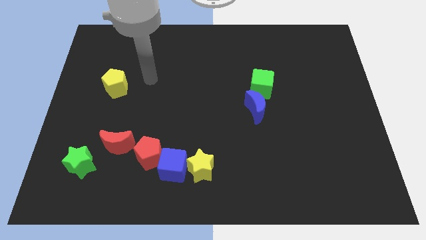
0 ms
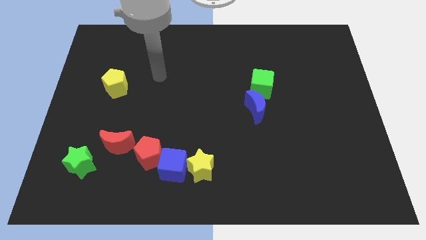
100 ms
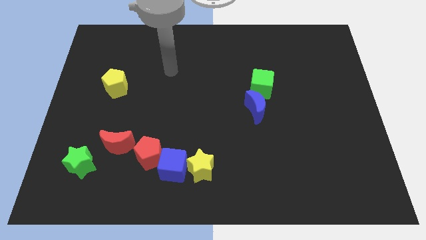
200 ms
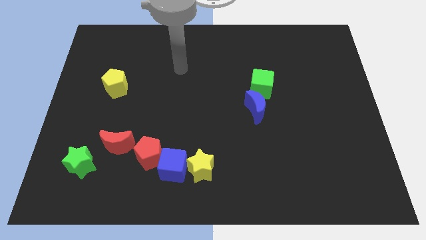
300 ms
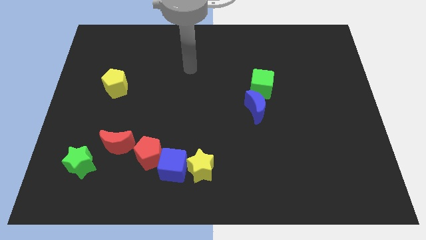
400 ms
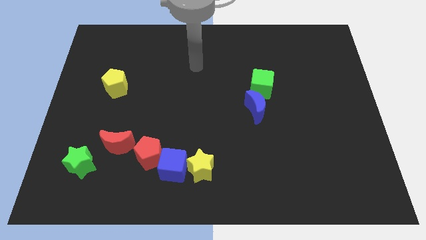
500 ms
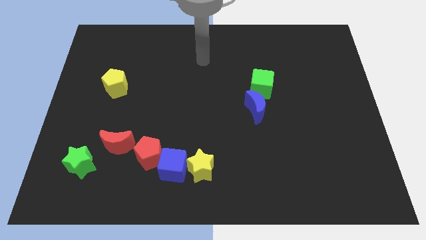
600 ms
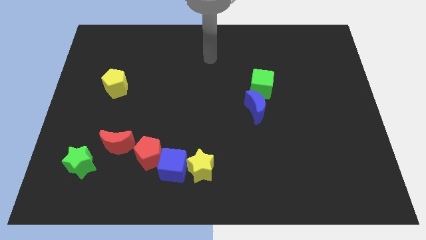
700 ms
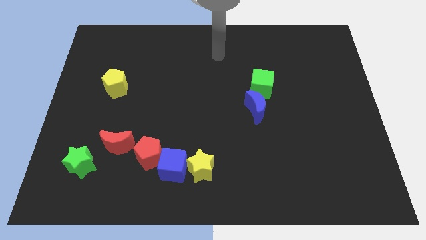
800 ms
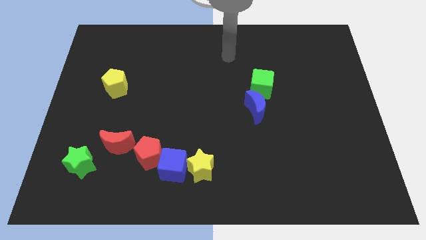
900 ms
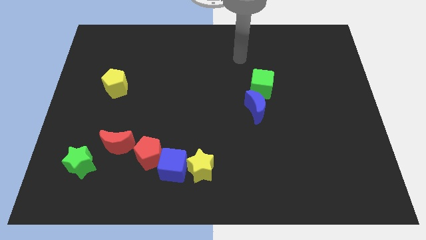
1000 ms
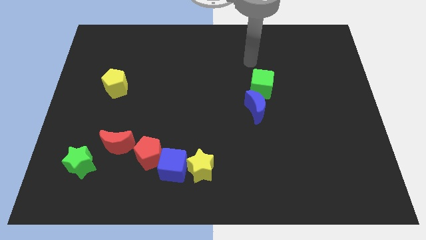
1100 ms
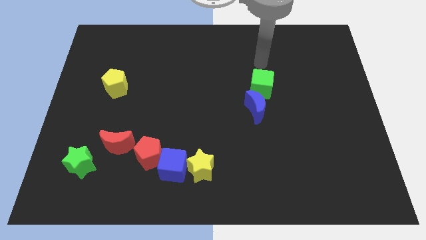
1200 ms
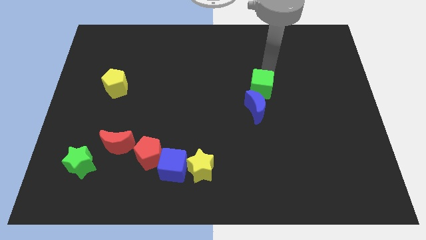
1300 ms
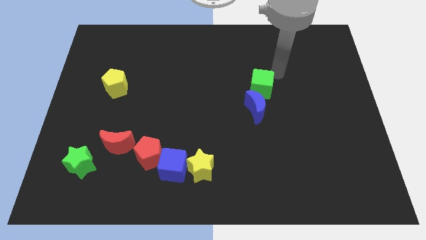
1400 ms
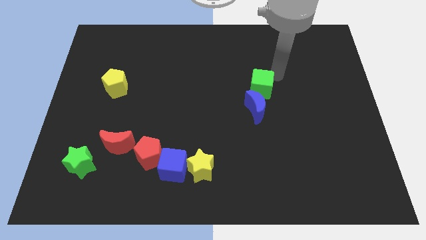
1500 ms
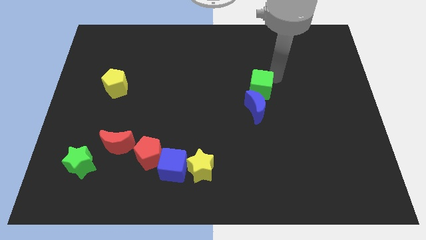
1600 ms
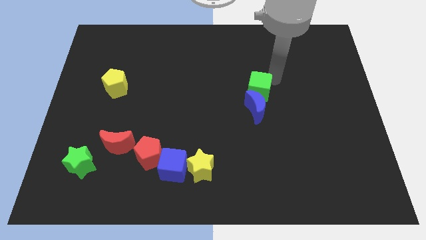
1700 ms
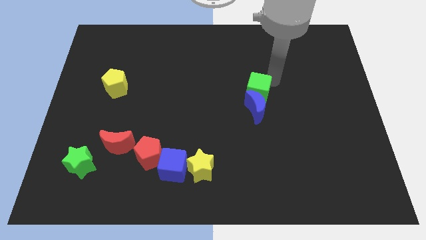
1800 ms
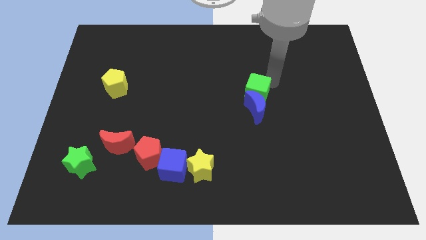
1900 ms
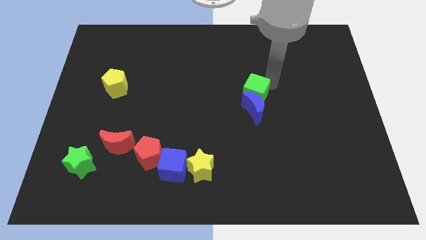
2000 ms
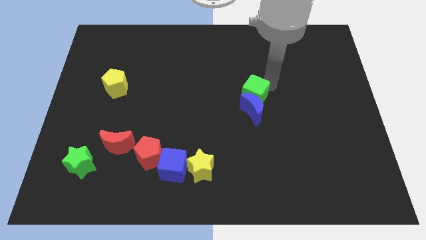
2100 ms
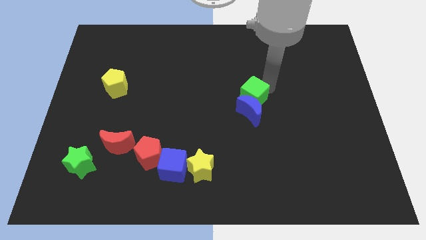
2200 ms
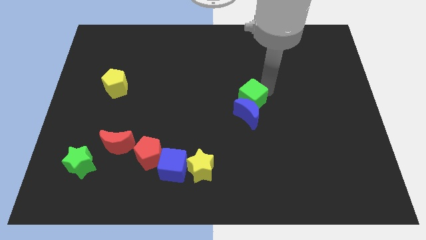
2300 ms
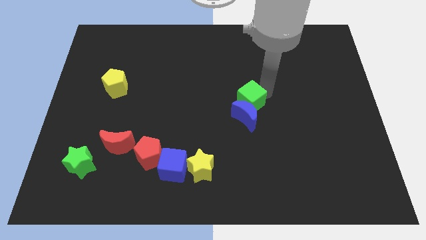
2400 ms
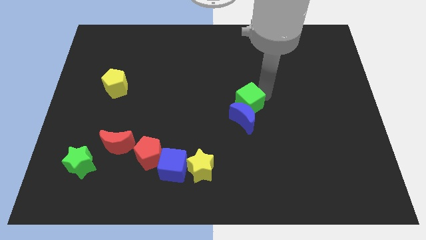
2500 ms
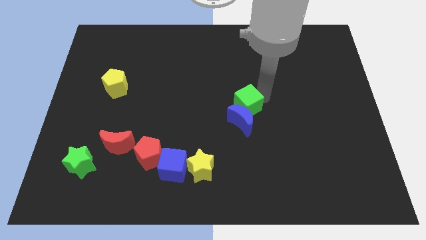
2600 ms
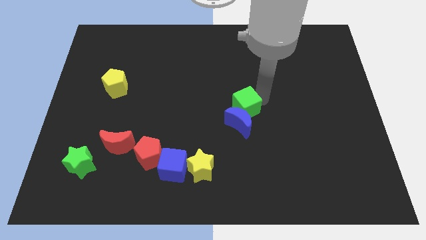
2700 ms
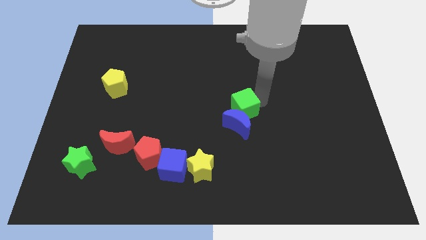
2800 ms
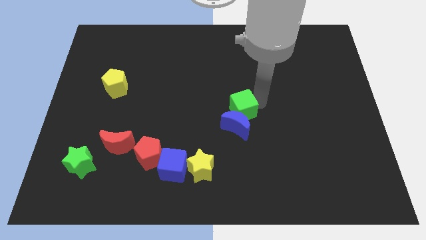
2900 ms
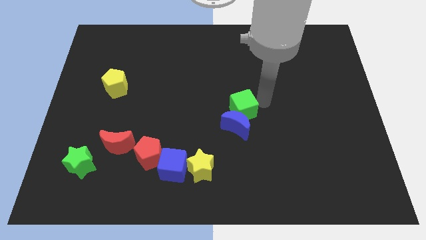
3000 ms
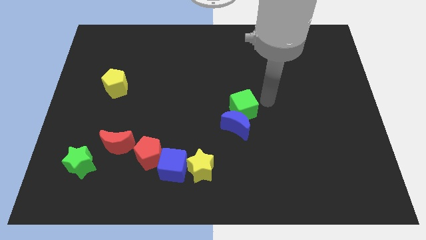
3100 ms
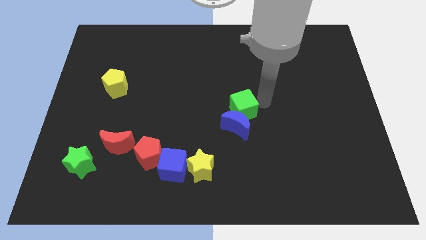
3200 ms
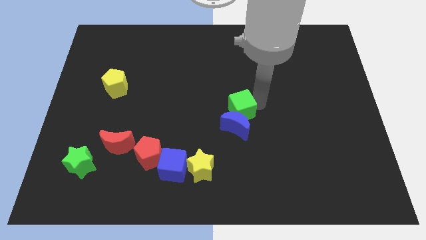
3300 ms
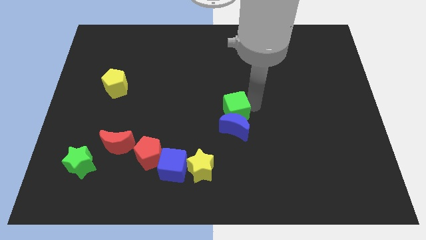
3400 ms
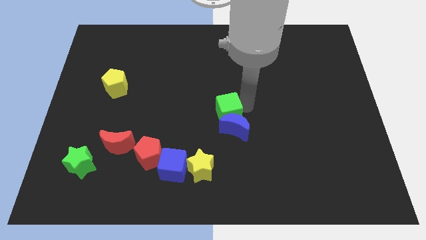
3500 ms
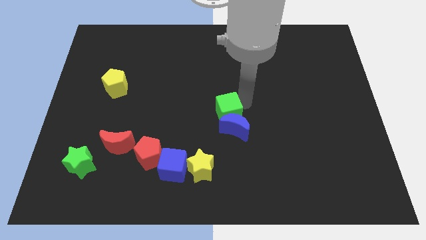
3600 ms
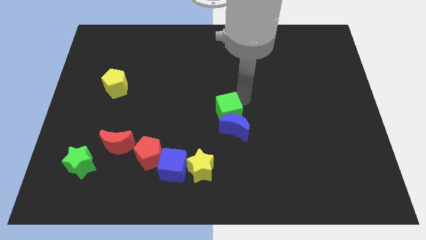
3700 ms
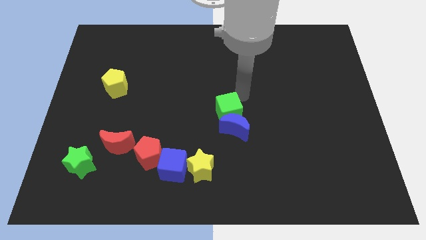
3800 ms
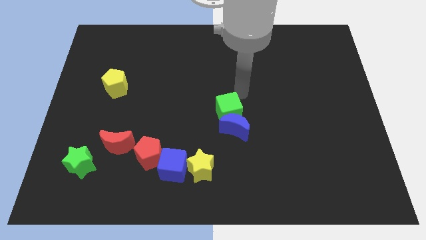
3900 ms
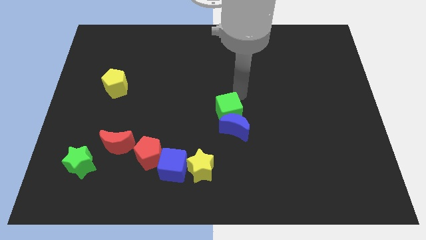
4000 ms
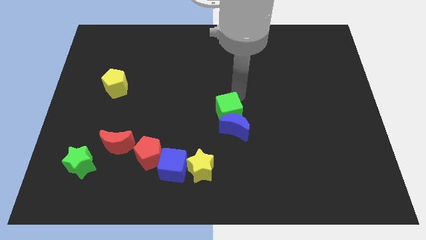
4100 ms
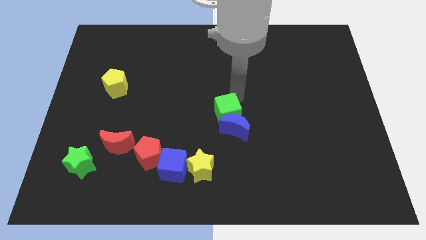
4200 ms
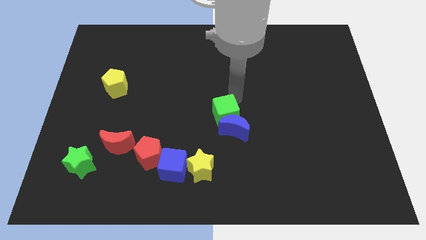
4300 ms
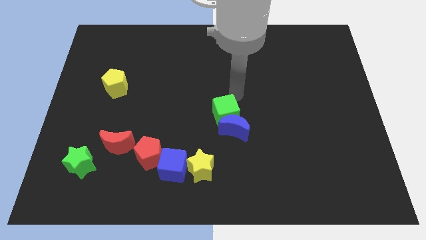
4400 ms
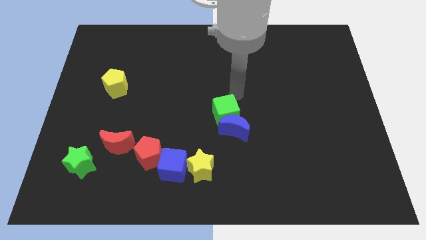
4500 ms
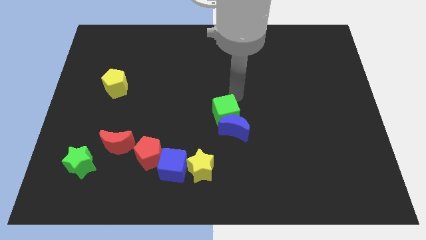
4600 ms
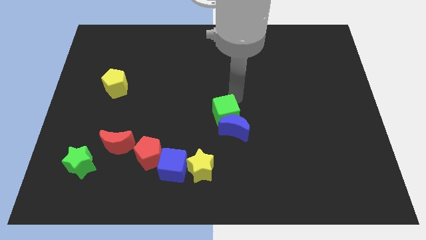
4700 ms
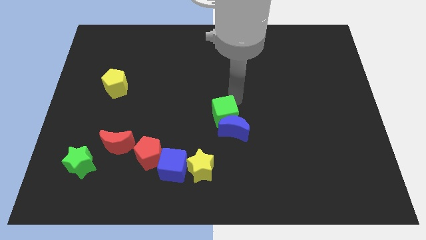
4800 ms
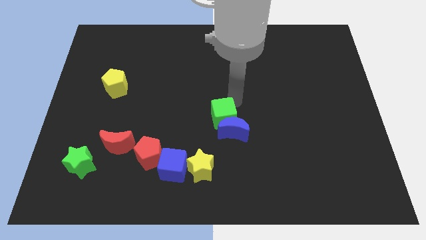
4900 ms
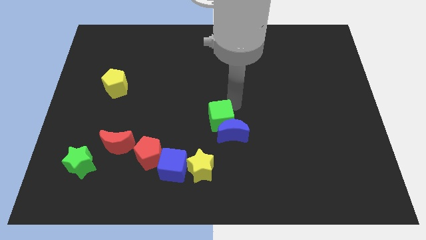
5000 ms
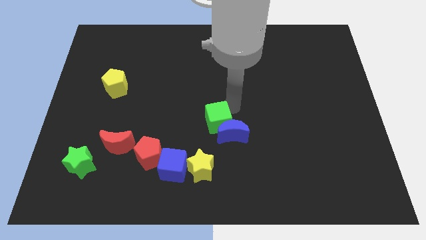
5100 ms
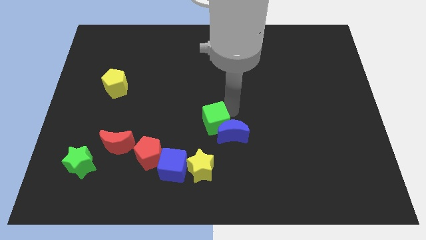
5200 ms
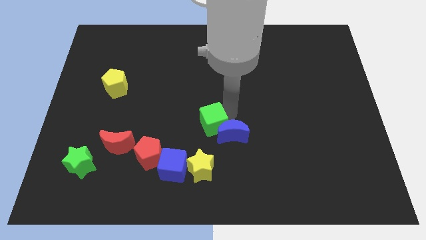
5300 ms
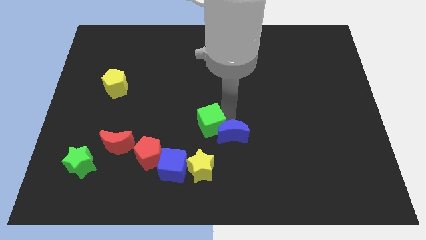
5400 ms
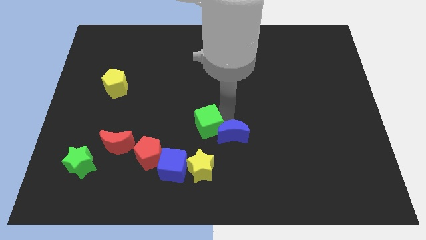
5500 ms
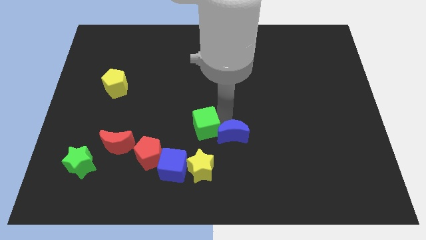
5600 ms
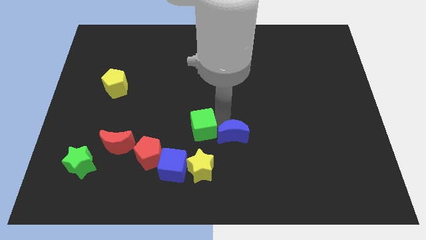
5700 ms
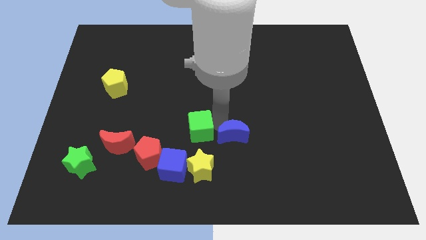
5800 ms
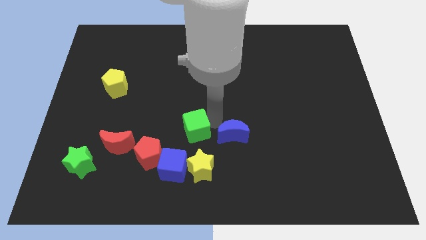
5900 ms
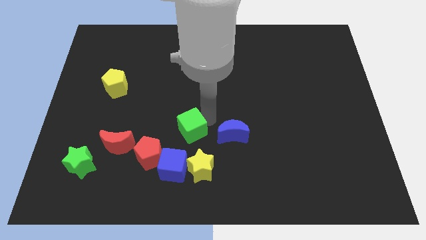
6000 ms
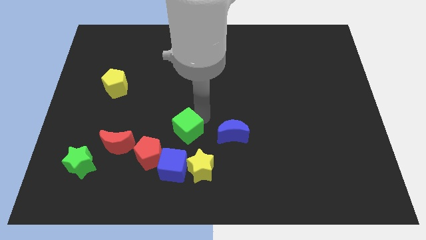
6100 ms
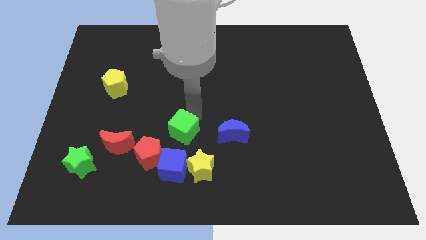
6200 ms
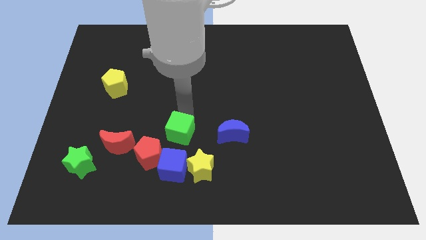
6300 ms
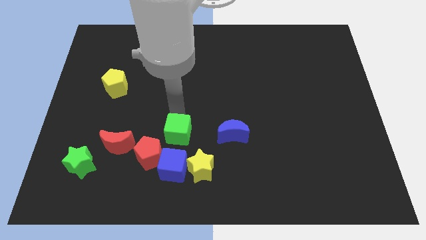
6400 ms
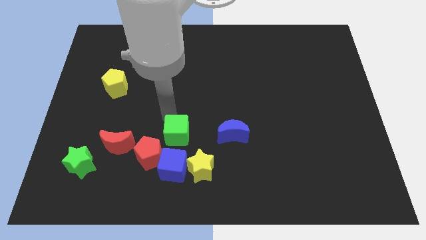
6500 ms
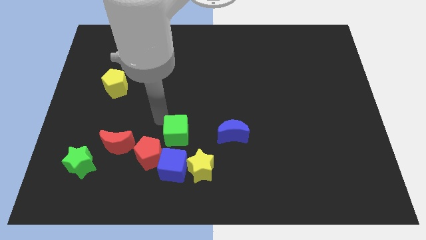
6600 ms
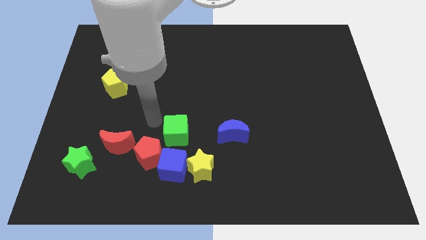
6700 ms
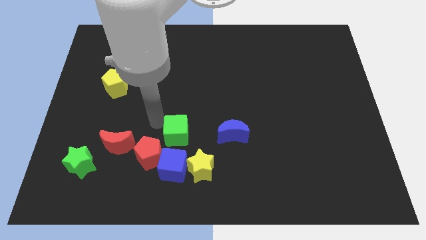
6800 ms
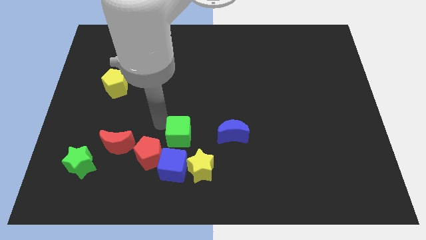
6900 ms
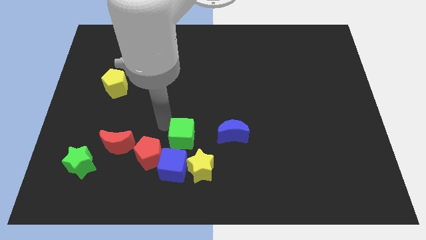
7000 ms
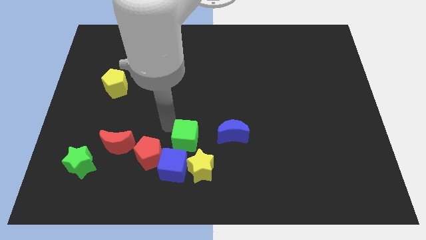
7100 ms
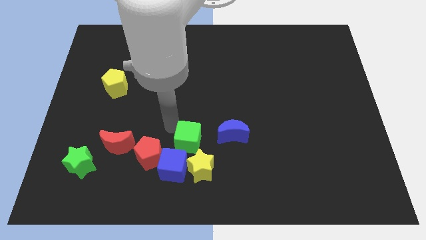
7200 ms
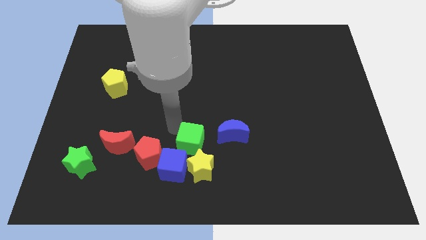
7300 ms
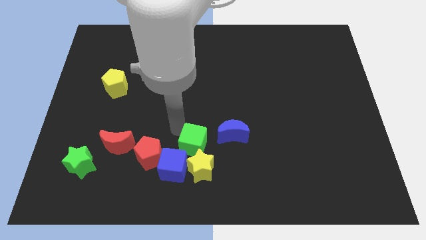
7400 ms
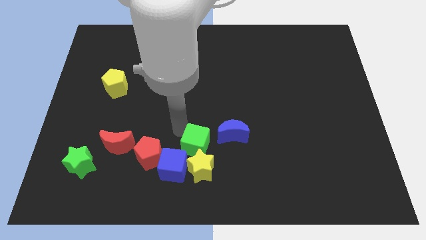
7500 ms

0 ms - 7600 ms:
move the green cube next to the yellow star
